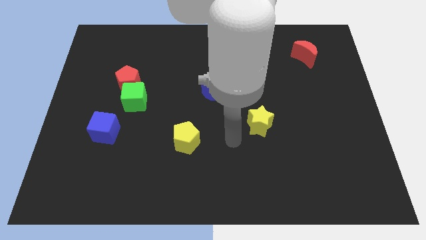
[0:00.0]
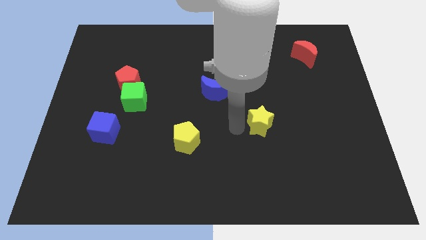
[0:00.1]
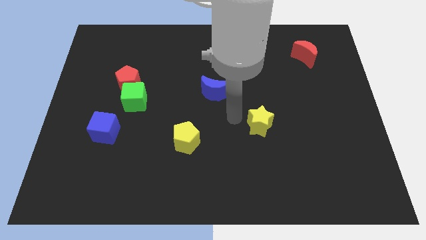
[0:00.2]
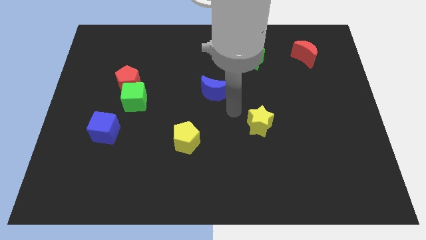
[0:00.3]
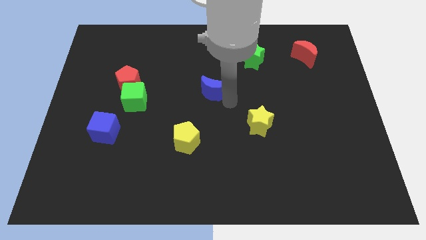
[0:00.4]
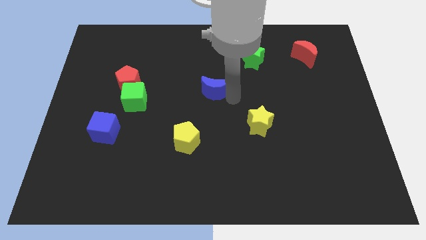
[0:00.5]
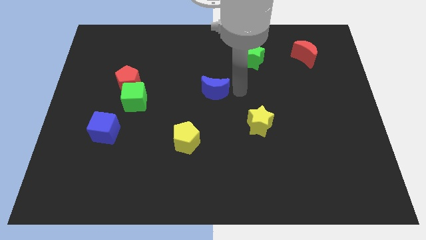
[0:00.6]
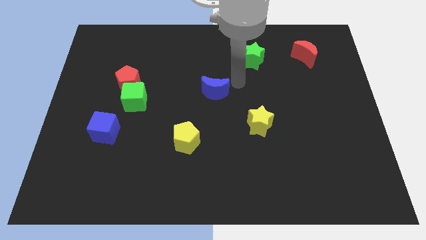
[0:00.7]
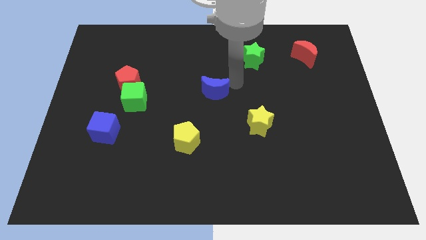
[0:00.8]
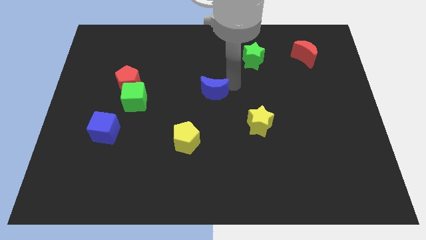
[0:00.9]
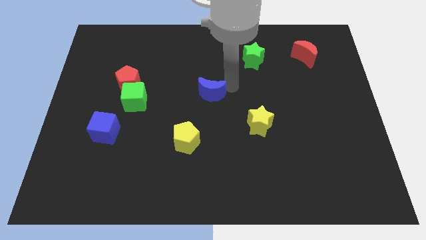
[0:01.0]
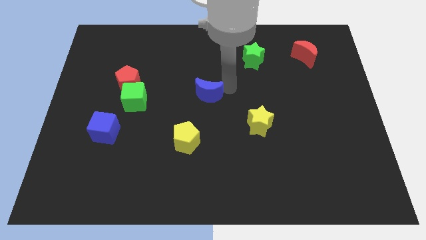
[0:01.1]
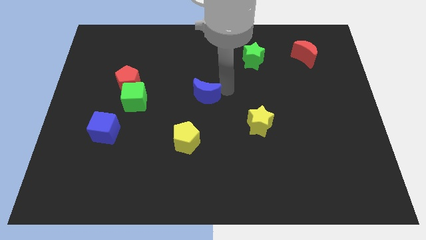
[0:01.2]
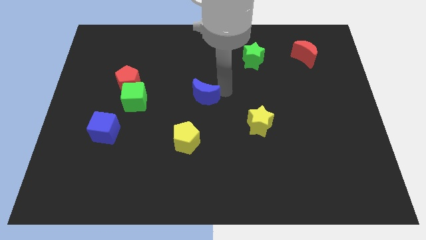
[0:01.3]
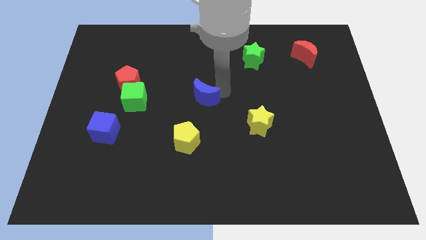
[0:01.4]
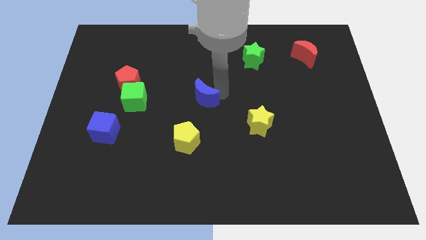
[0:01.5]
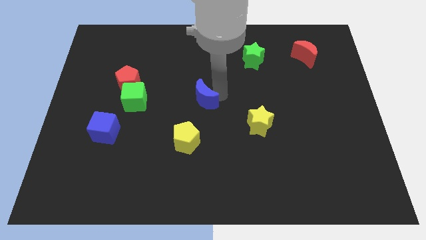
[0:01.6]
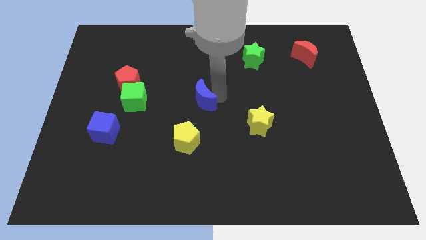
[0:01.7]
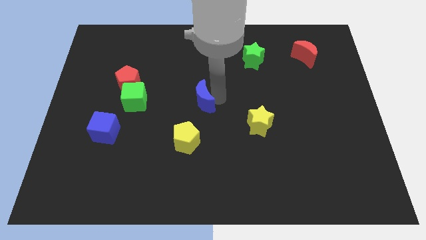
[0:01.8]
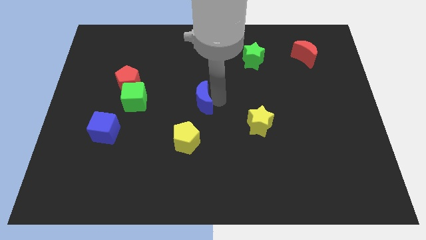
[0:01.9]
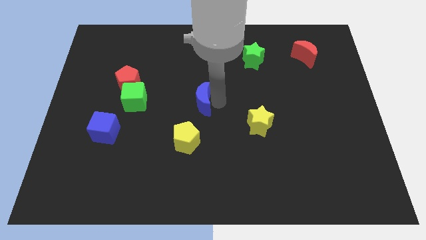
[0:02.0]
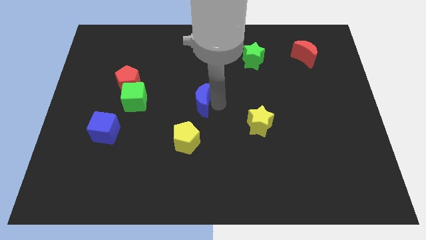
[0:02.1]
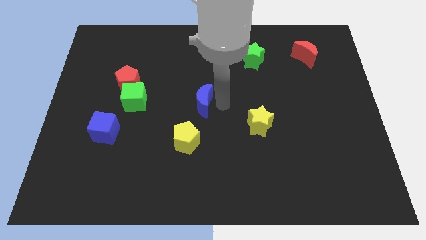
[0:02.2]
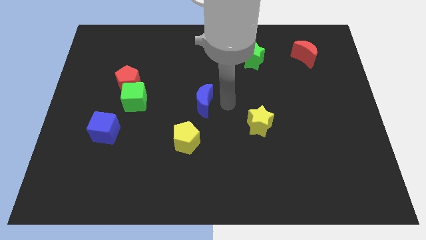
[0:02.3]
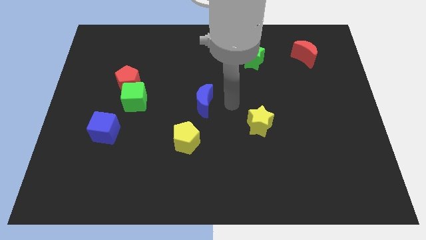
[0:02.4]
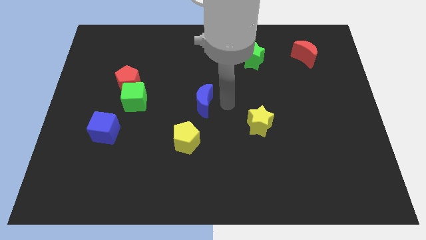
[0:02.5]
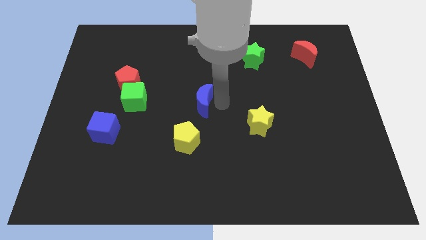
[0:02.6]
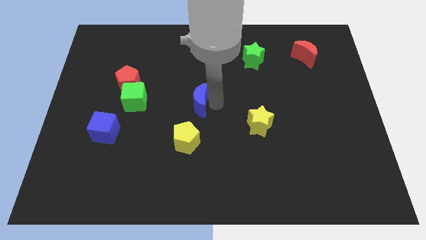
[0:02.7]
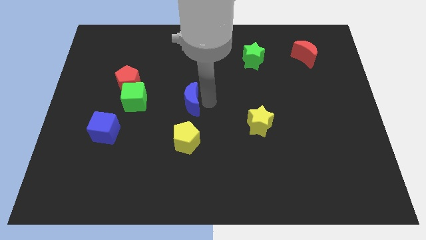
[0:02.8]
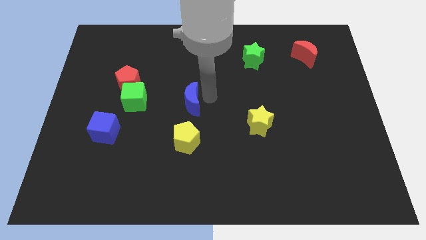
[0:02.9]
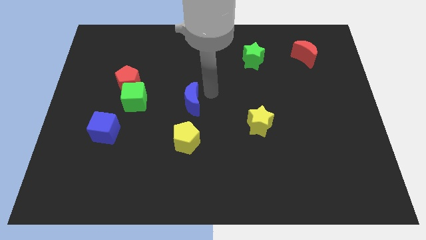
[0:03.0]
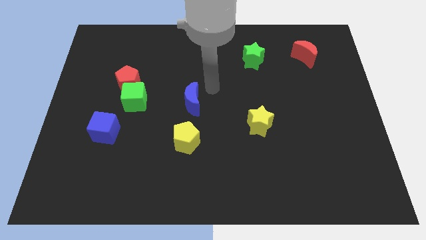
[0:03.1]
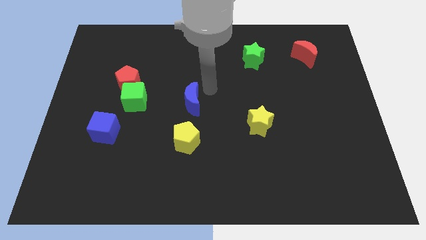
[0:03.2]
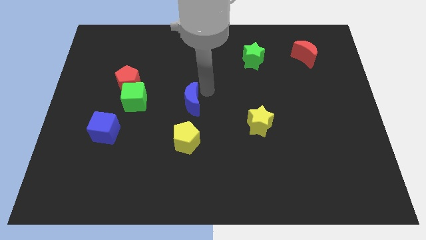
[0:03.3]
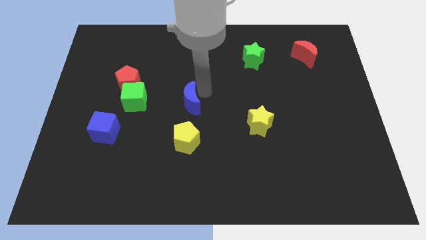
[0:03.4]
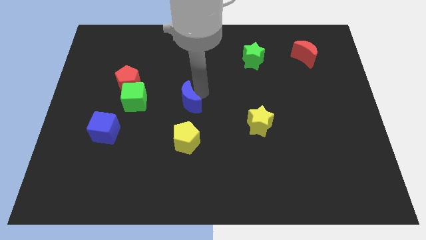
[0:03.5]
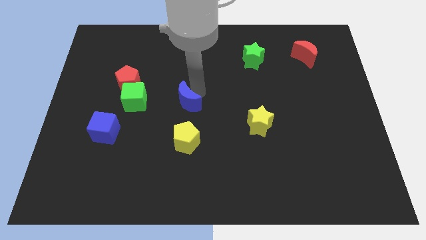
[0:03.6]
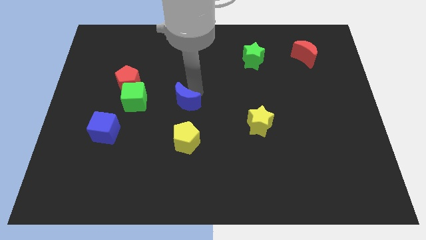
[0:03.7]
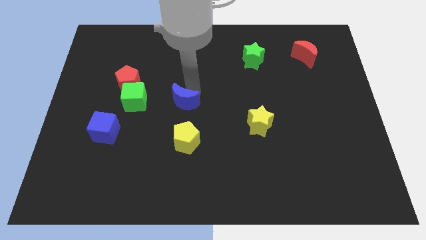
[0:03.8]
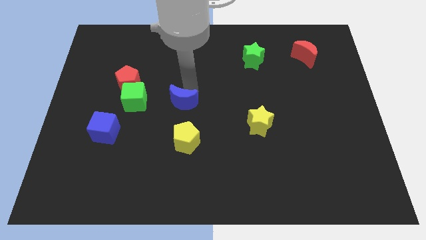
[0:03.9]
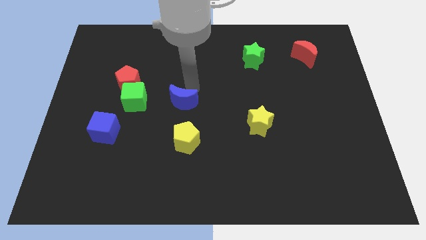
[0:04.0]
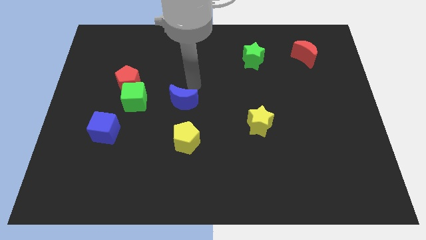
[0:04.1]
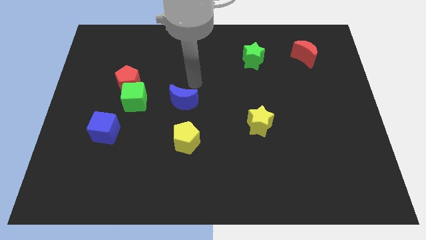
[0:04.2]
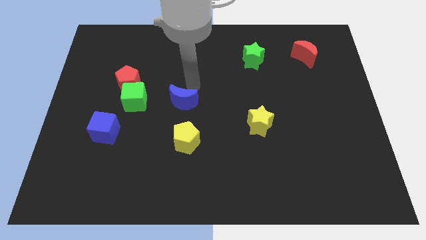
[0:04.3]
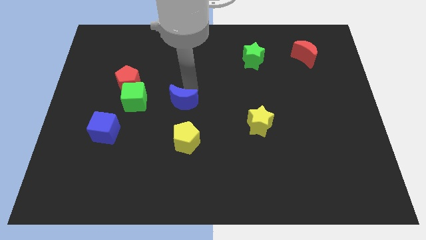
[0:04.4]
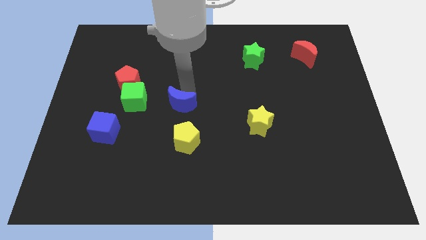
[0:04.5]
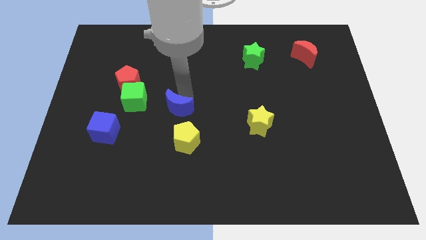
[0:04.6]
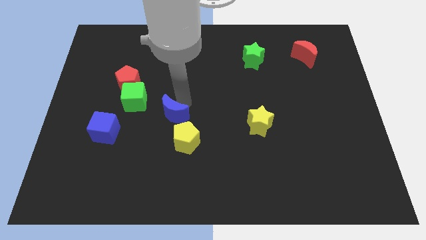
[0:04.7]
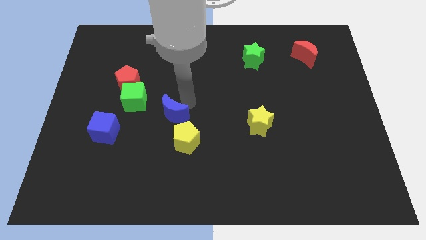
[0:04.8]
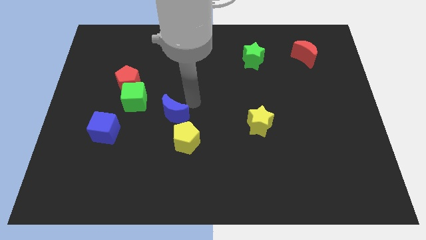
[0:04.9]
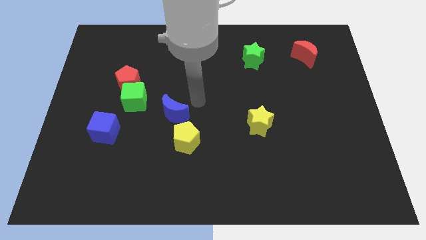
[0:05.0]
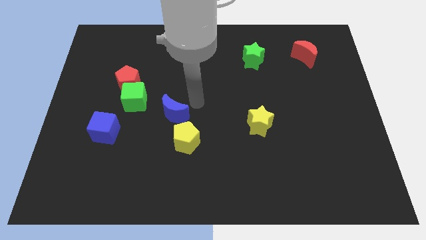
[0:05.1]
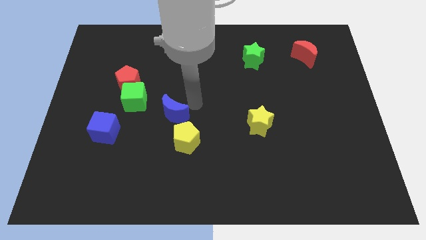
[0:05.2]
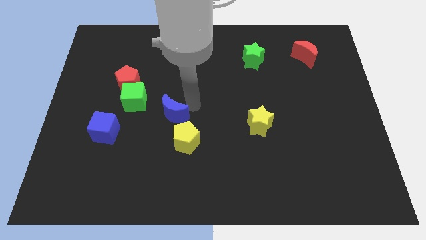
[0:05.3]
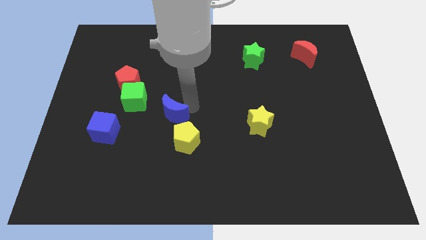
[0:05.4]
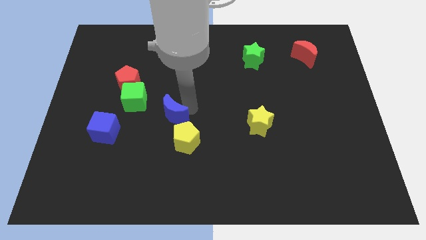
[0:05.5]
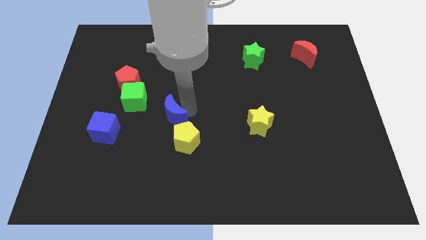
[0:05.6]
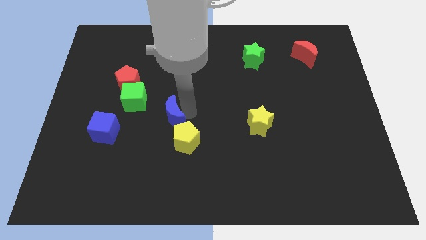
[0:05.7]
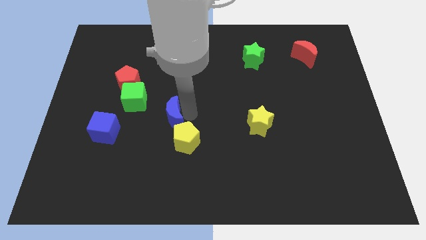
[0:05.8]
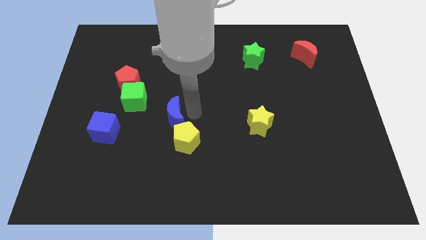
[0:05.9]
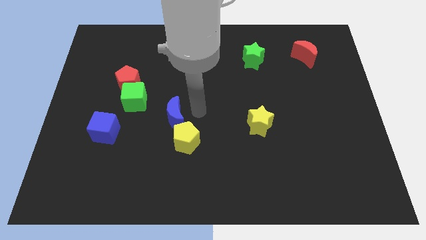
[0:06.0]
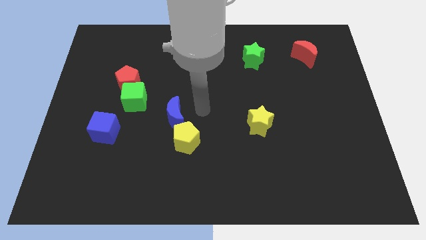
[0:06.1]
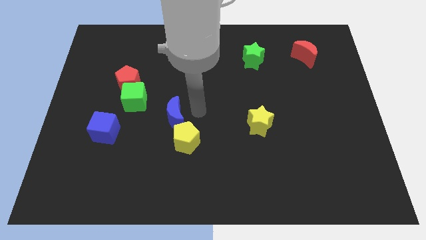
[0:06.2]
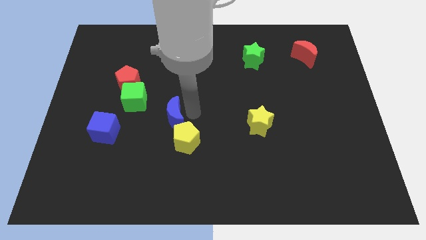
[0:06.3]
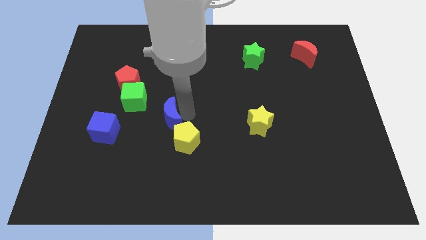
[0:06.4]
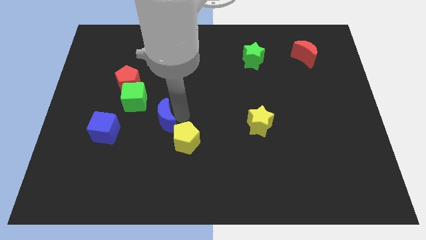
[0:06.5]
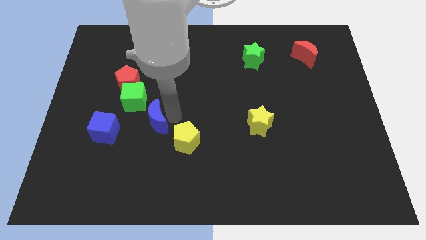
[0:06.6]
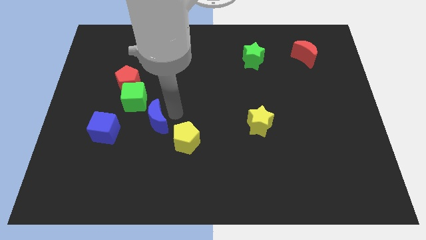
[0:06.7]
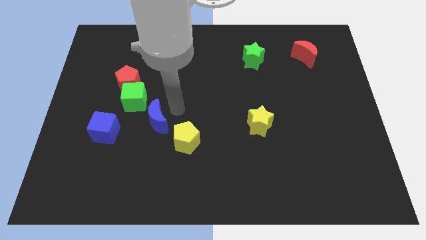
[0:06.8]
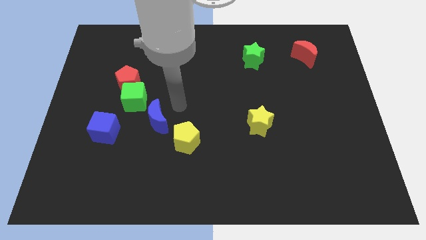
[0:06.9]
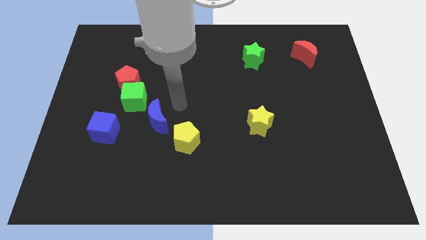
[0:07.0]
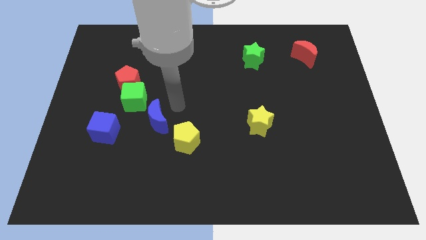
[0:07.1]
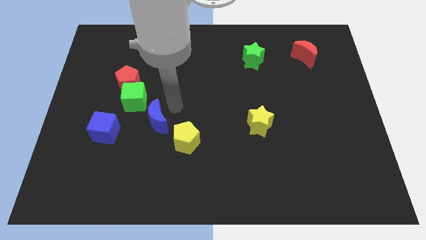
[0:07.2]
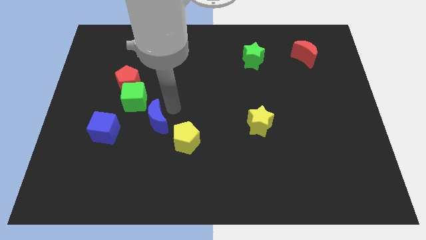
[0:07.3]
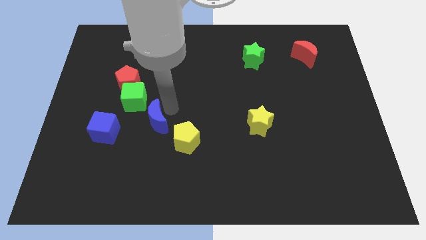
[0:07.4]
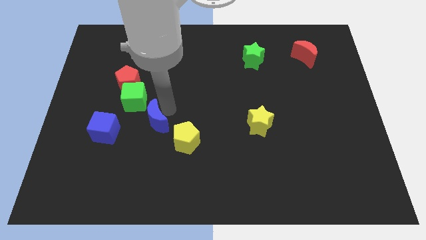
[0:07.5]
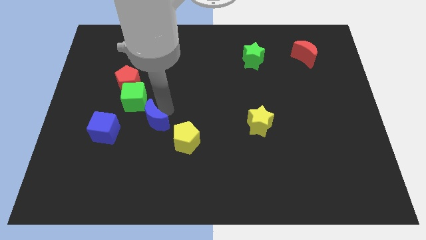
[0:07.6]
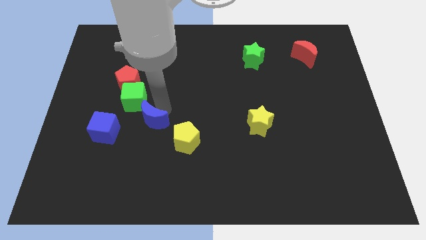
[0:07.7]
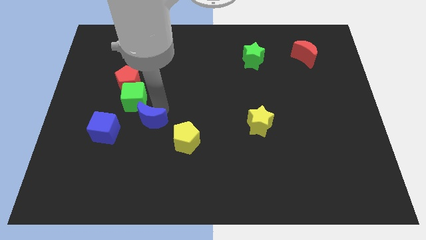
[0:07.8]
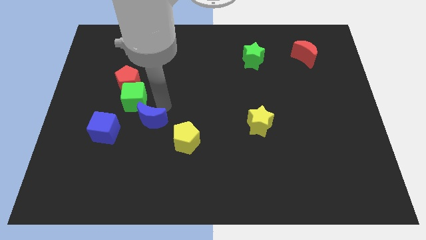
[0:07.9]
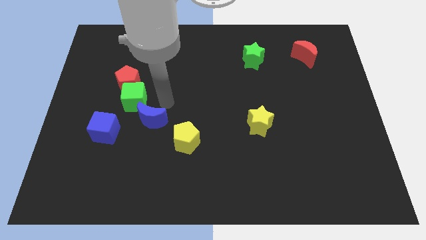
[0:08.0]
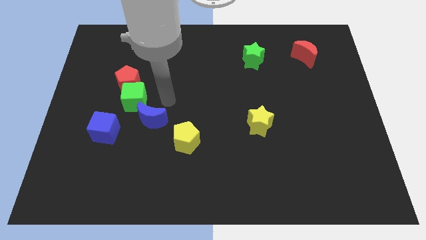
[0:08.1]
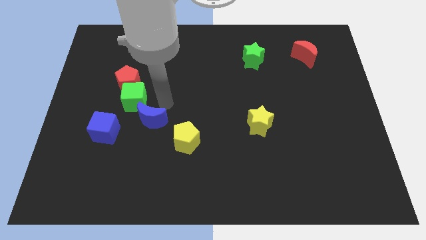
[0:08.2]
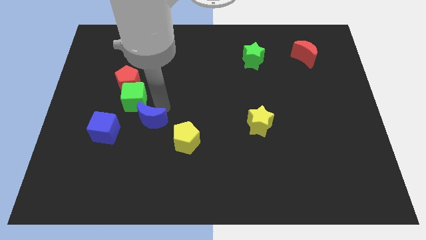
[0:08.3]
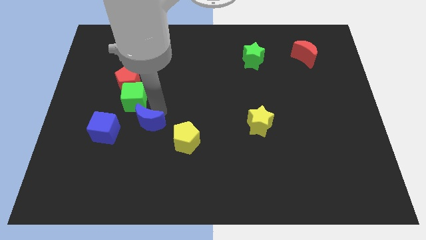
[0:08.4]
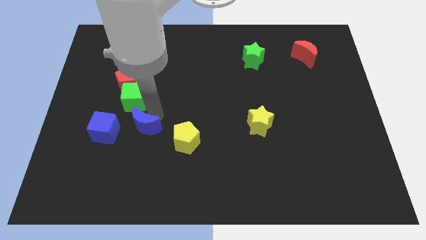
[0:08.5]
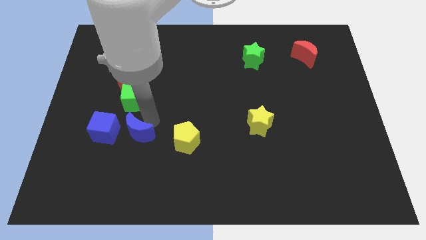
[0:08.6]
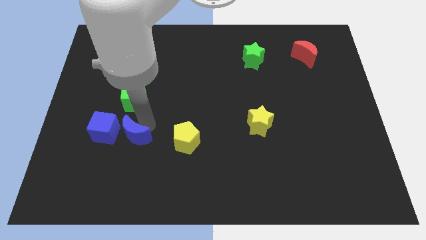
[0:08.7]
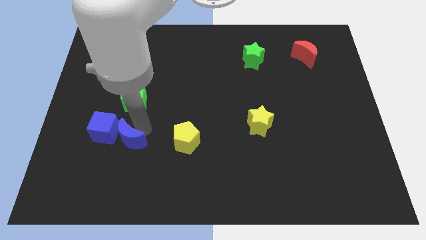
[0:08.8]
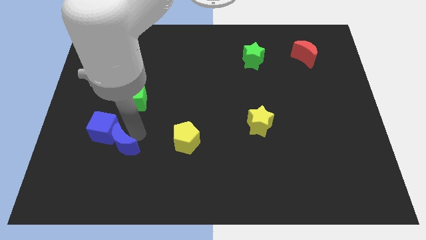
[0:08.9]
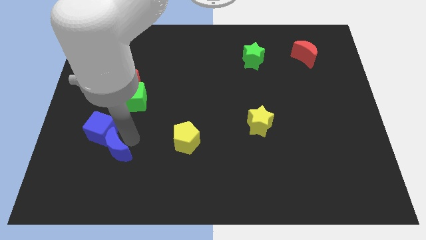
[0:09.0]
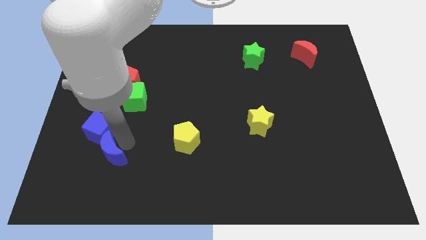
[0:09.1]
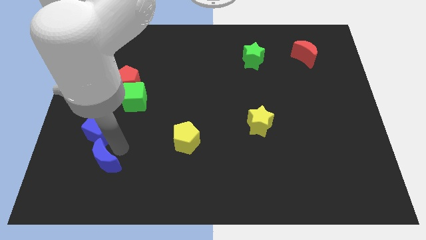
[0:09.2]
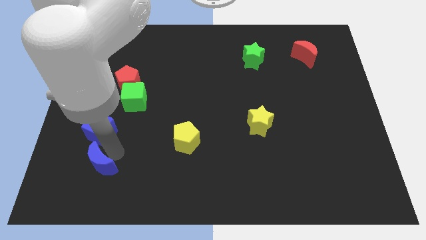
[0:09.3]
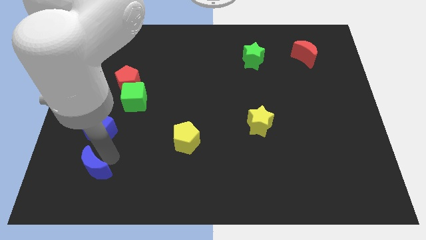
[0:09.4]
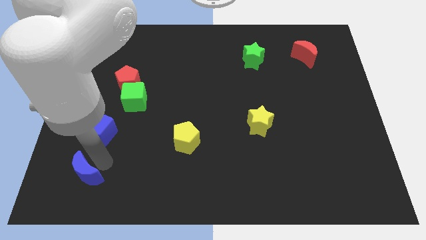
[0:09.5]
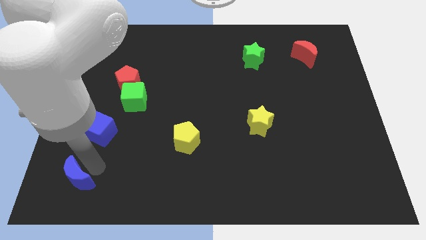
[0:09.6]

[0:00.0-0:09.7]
slide the blue moon to the lower left corner
